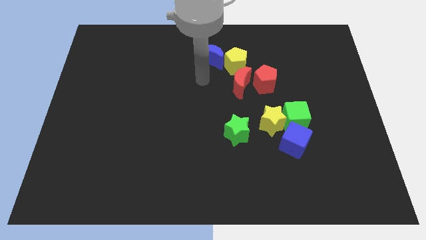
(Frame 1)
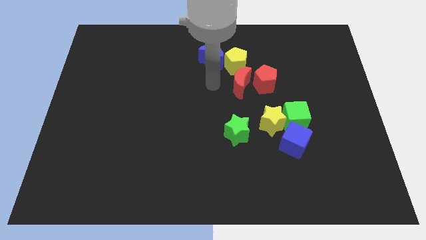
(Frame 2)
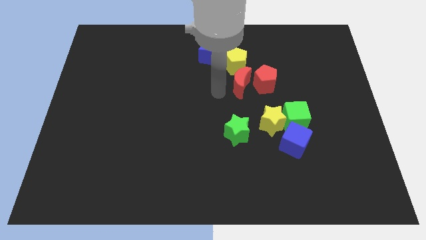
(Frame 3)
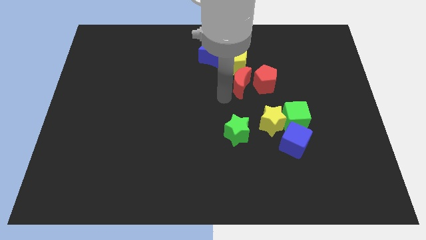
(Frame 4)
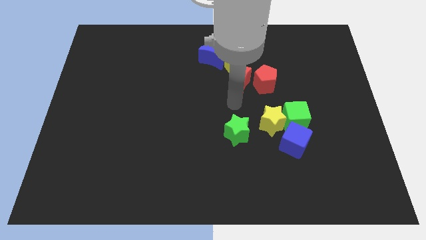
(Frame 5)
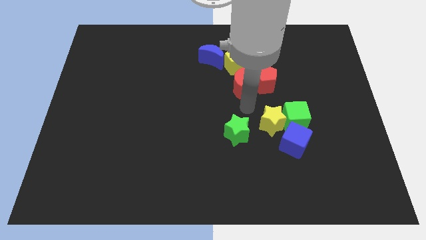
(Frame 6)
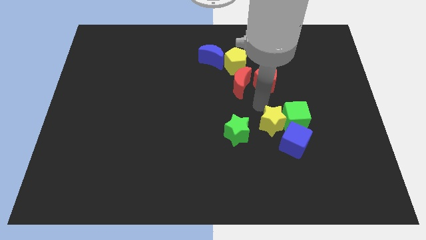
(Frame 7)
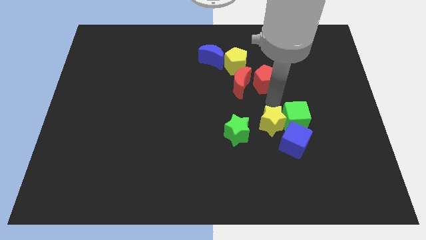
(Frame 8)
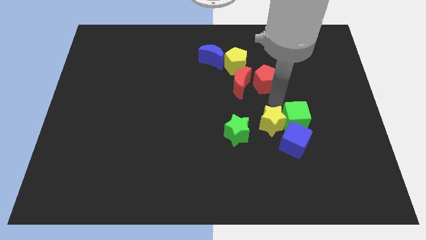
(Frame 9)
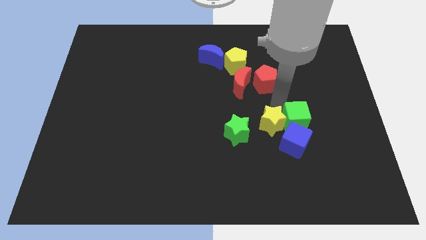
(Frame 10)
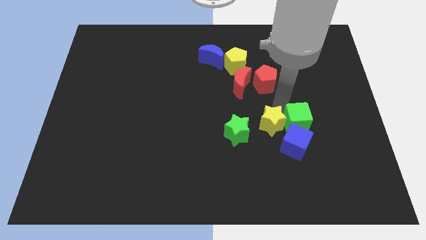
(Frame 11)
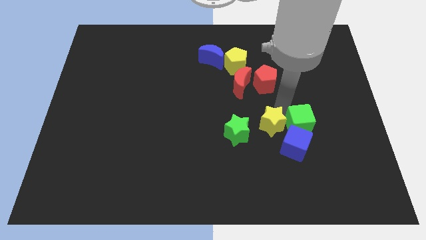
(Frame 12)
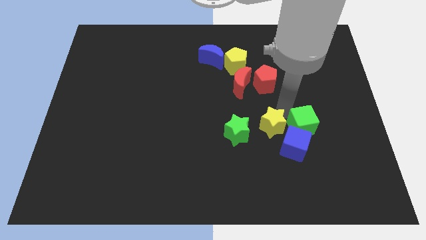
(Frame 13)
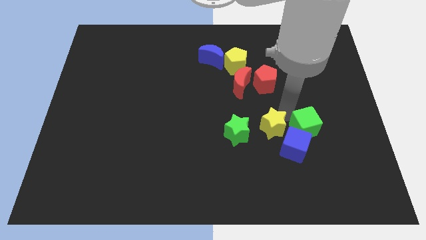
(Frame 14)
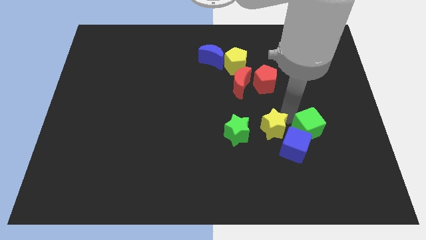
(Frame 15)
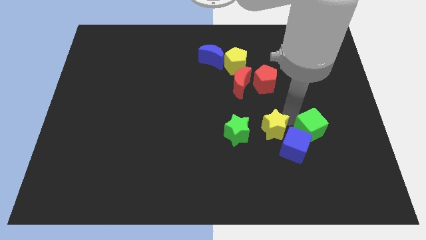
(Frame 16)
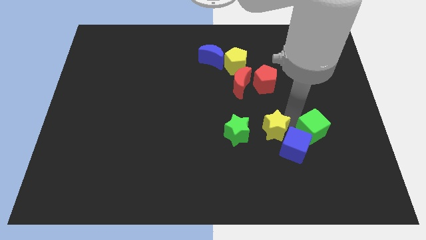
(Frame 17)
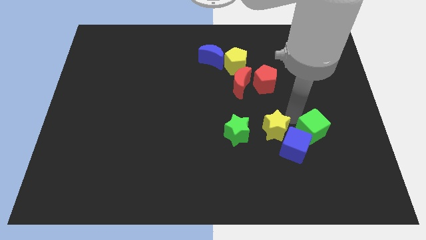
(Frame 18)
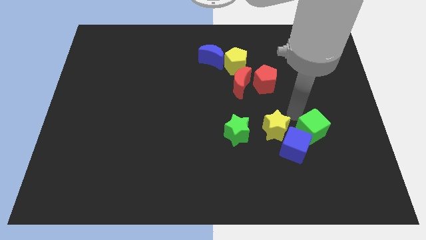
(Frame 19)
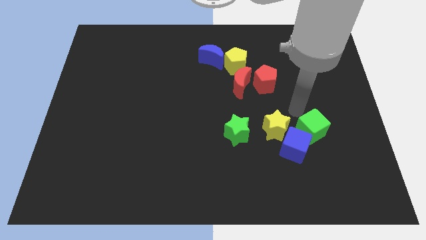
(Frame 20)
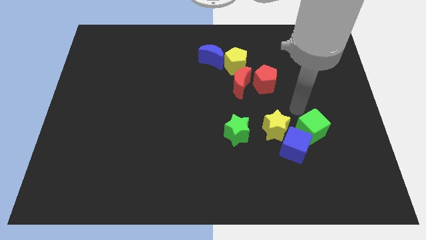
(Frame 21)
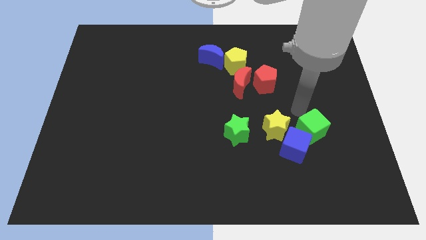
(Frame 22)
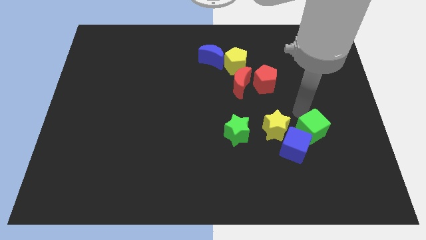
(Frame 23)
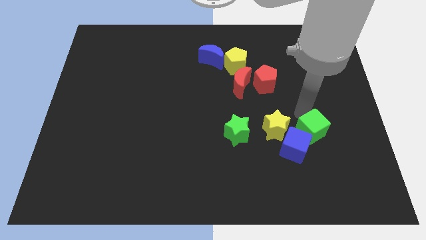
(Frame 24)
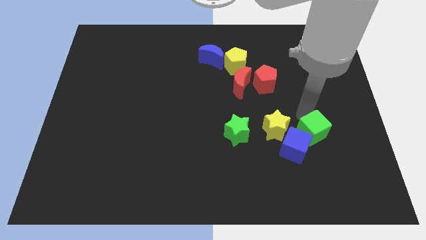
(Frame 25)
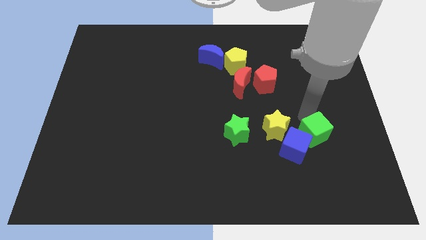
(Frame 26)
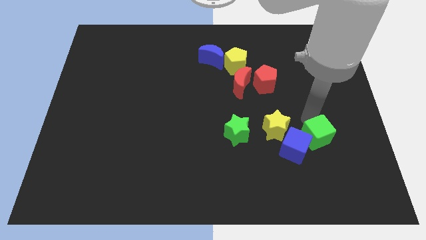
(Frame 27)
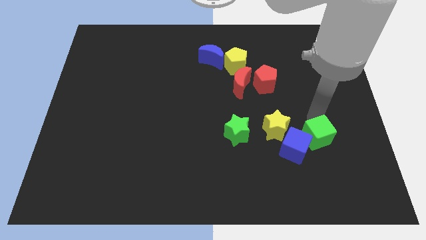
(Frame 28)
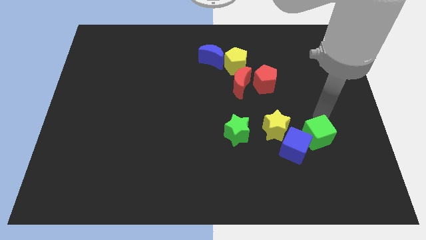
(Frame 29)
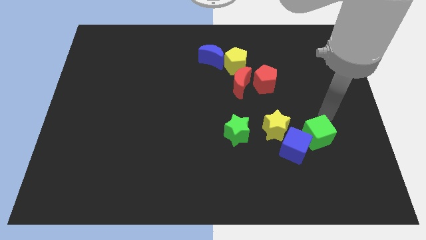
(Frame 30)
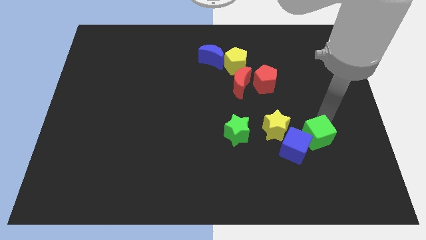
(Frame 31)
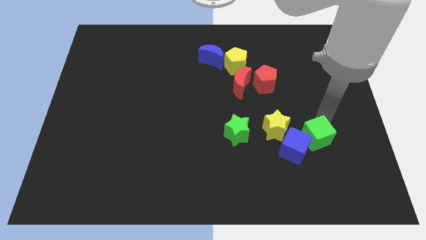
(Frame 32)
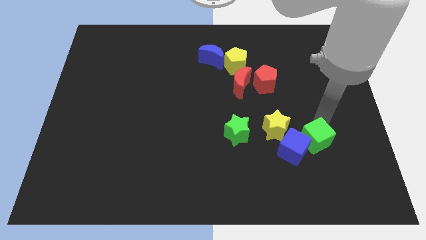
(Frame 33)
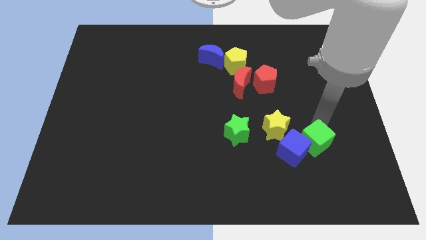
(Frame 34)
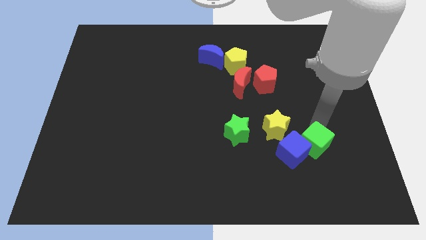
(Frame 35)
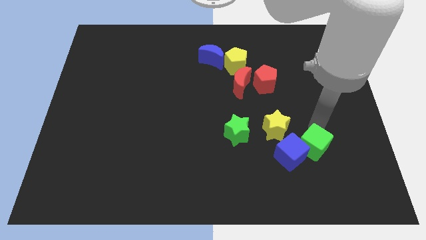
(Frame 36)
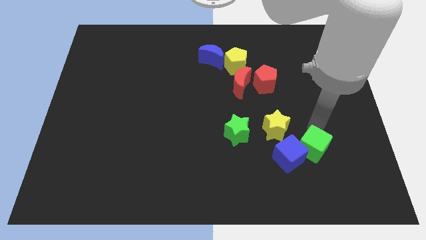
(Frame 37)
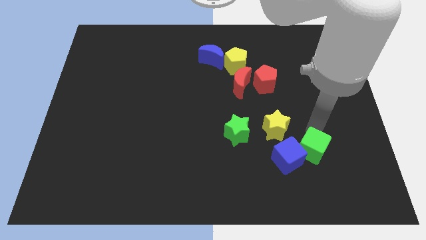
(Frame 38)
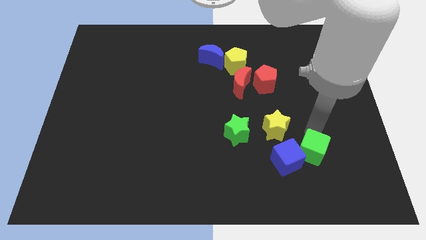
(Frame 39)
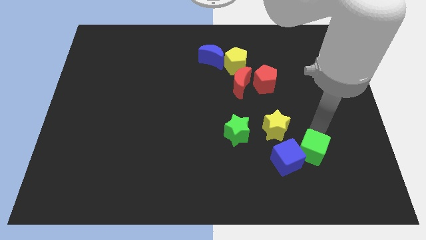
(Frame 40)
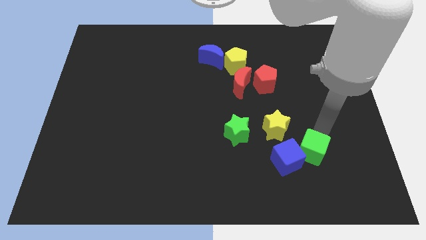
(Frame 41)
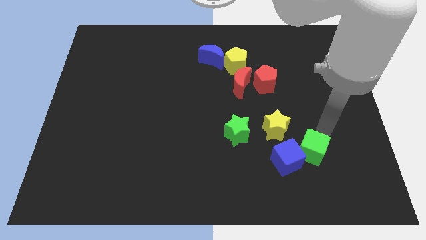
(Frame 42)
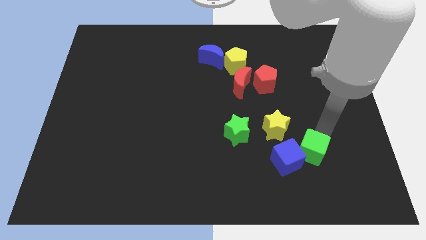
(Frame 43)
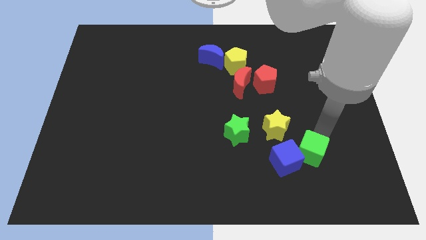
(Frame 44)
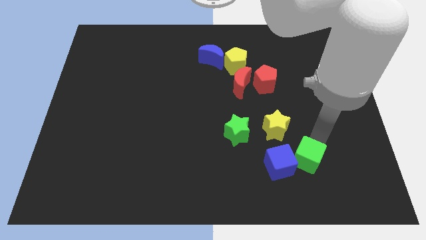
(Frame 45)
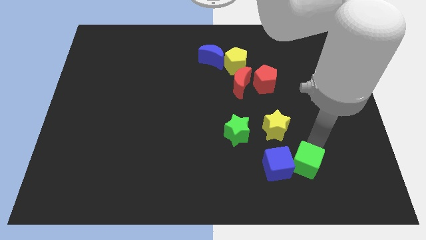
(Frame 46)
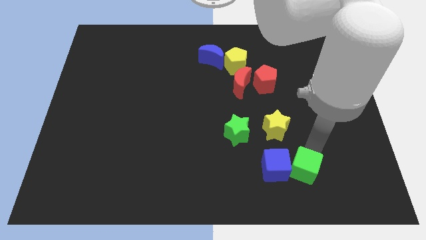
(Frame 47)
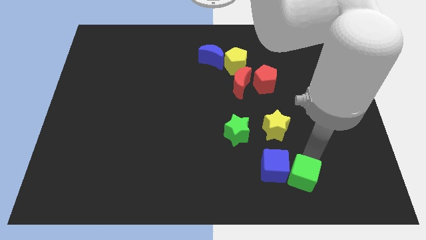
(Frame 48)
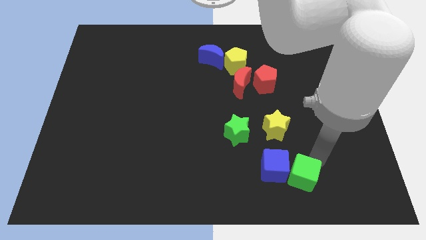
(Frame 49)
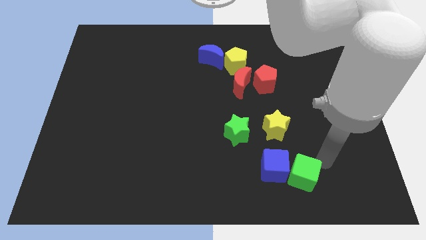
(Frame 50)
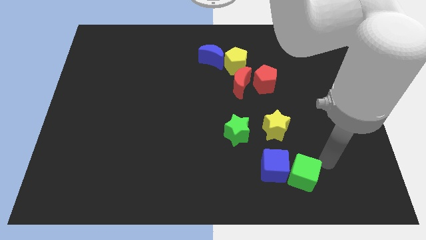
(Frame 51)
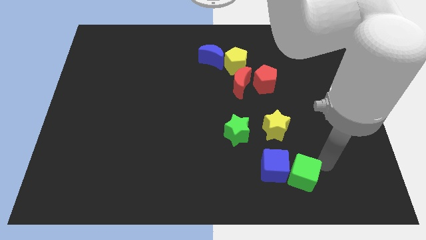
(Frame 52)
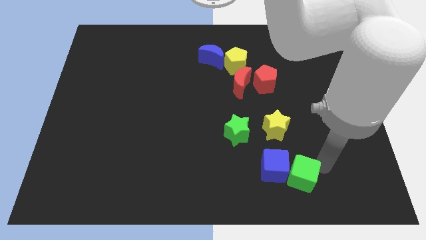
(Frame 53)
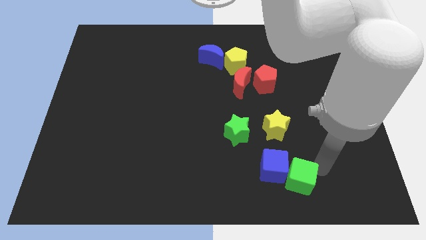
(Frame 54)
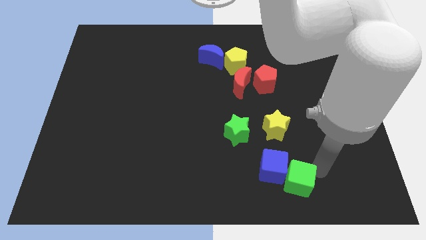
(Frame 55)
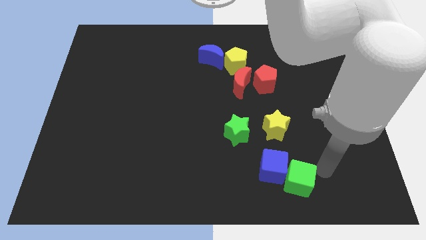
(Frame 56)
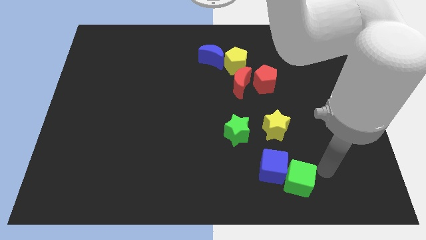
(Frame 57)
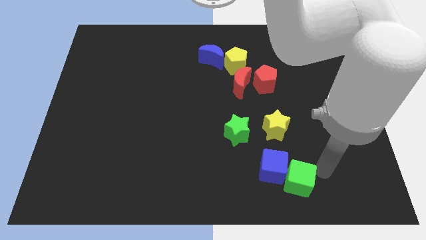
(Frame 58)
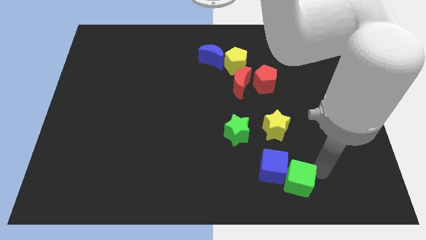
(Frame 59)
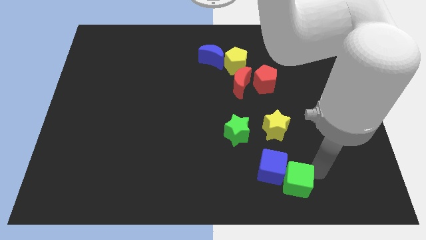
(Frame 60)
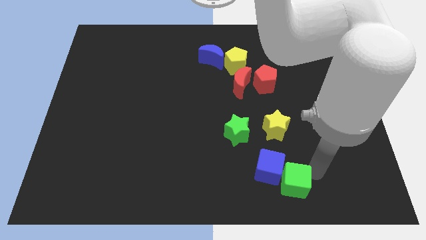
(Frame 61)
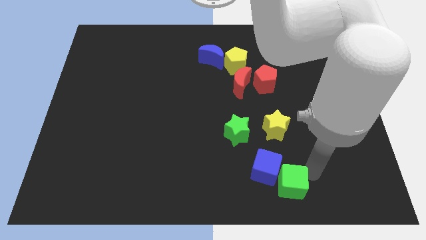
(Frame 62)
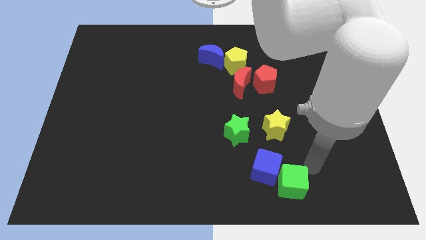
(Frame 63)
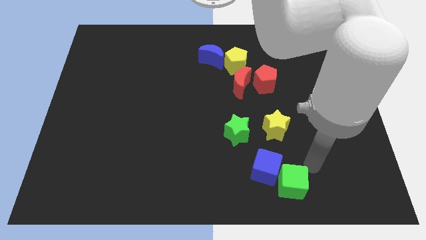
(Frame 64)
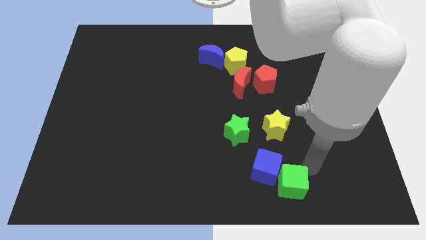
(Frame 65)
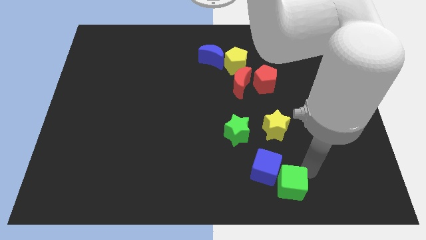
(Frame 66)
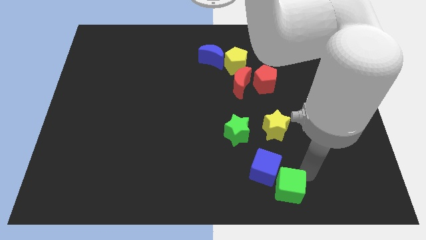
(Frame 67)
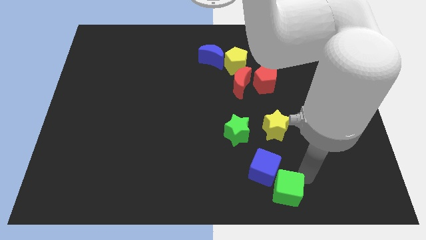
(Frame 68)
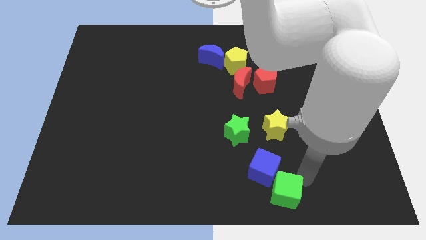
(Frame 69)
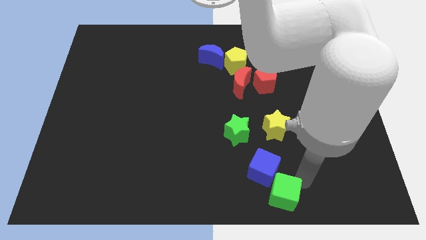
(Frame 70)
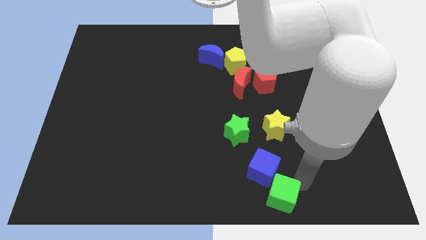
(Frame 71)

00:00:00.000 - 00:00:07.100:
put the green cube to the bottom

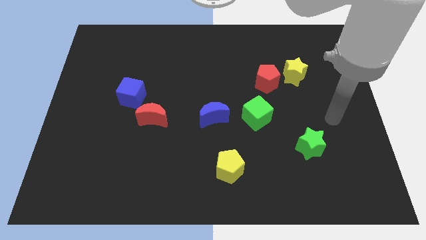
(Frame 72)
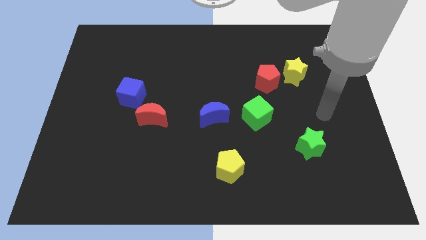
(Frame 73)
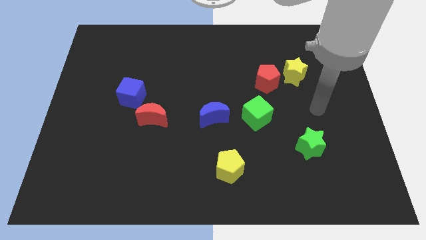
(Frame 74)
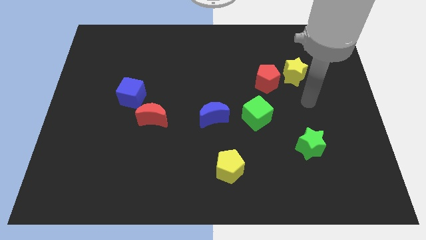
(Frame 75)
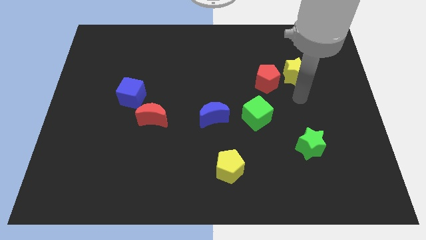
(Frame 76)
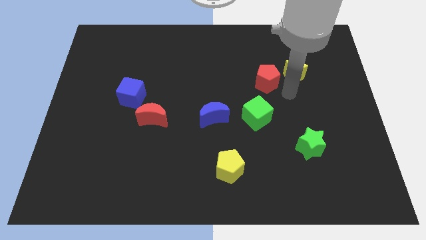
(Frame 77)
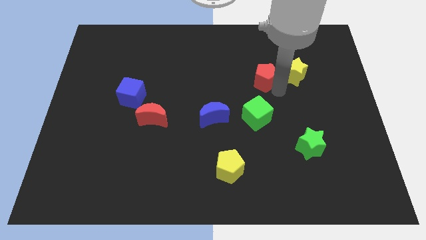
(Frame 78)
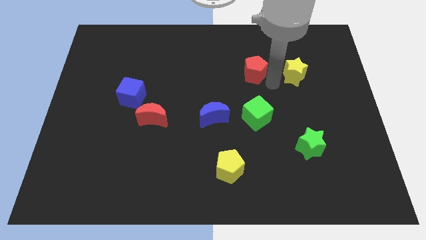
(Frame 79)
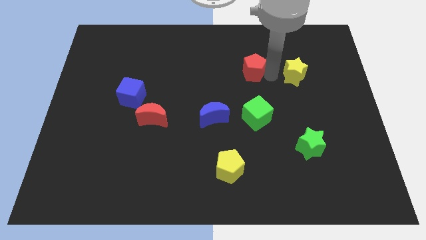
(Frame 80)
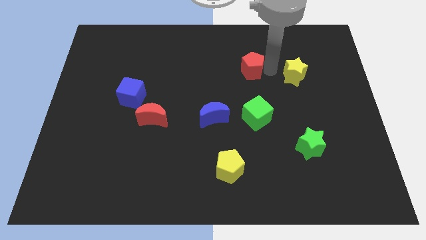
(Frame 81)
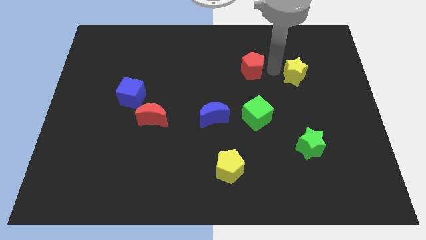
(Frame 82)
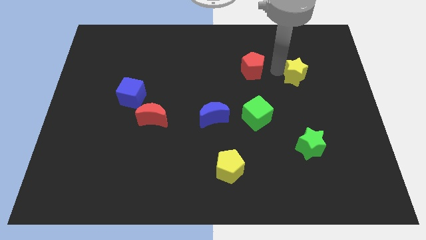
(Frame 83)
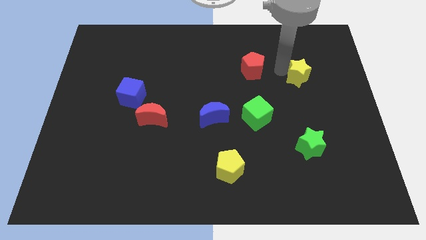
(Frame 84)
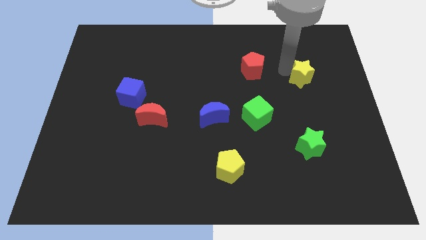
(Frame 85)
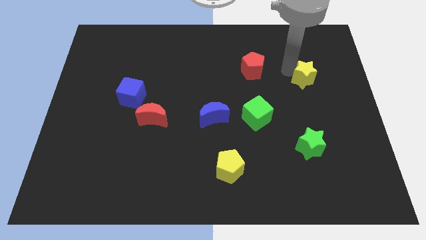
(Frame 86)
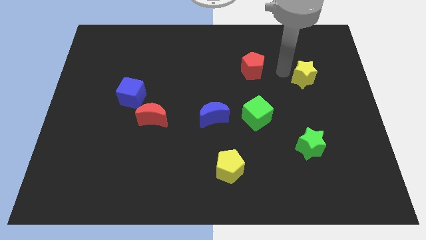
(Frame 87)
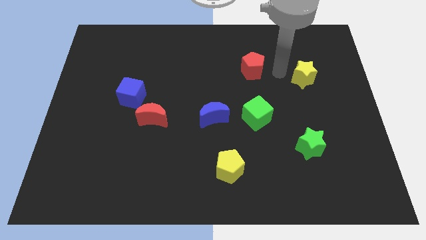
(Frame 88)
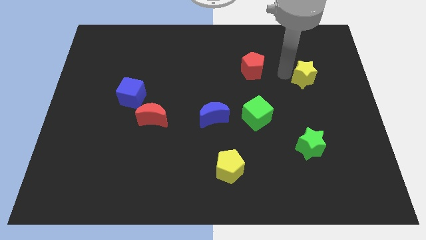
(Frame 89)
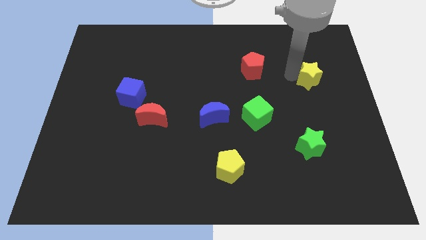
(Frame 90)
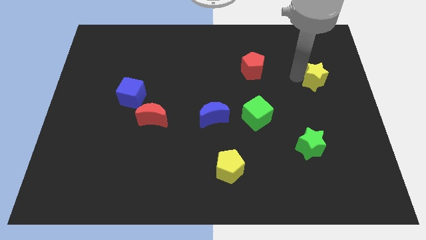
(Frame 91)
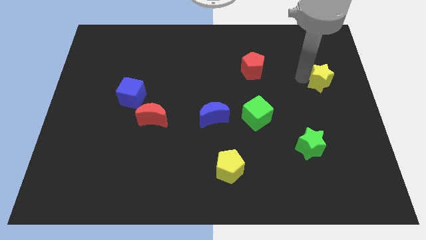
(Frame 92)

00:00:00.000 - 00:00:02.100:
push the yellow star to the center right
